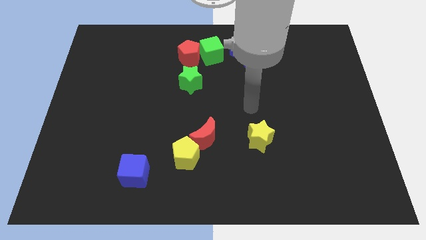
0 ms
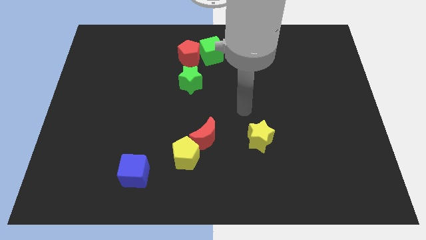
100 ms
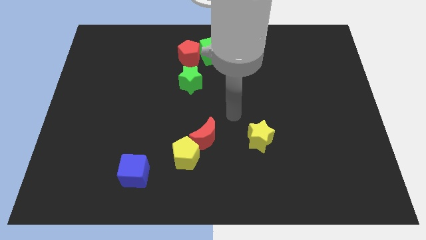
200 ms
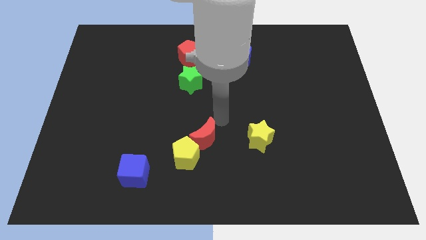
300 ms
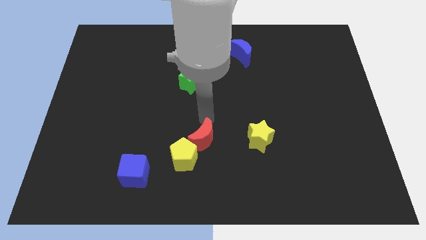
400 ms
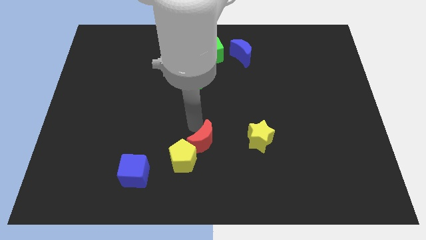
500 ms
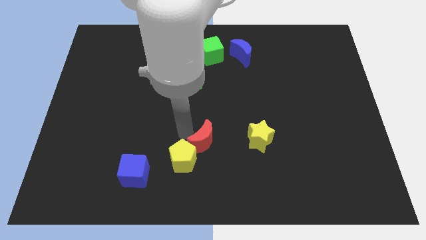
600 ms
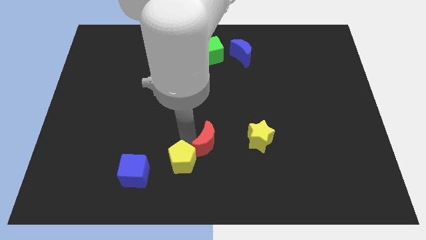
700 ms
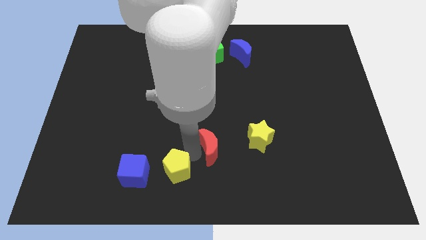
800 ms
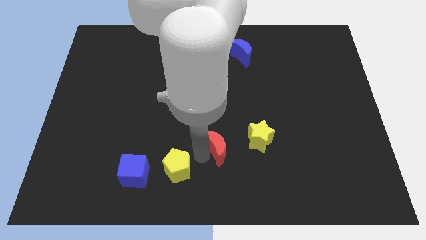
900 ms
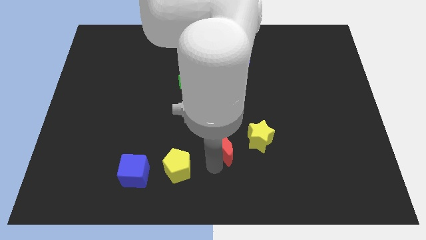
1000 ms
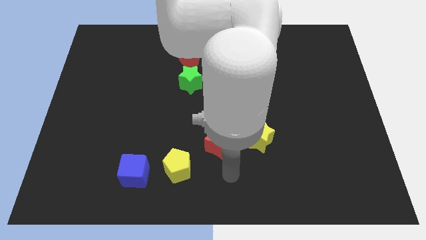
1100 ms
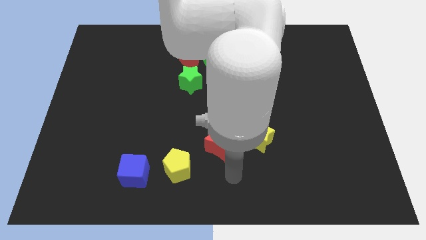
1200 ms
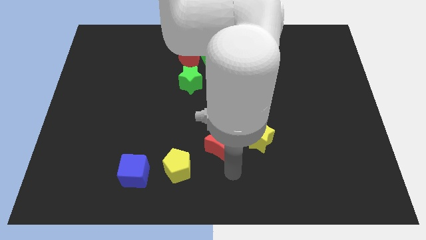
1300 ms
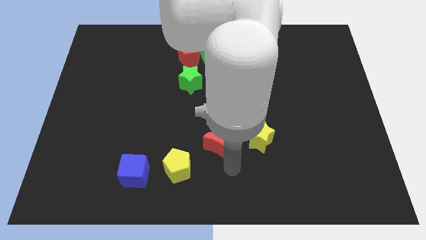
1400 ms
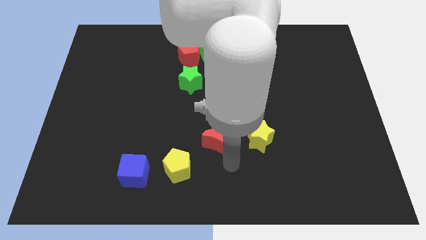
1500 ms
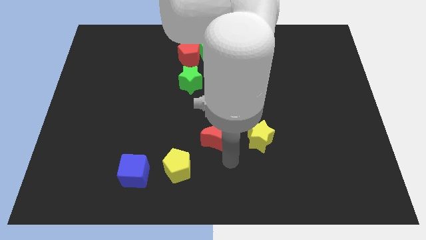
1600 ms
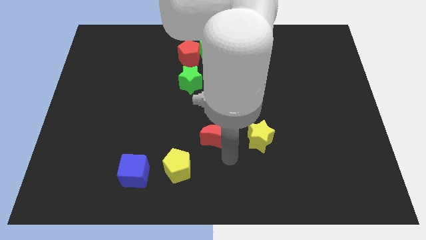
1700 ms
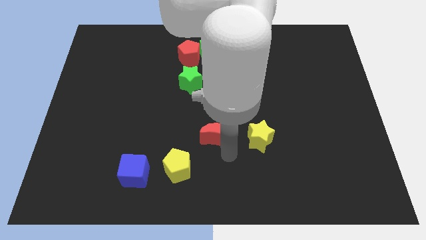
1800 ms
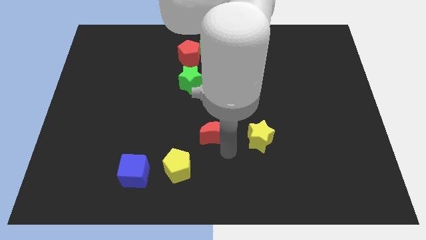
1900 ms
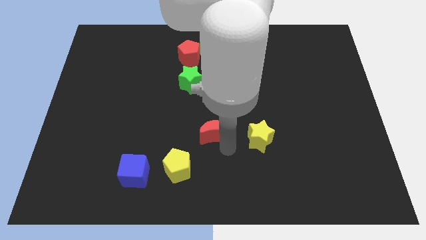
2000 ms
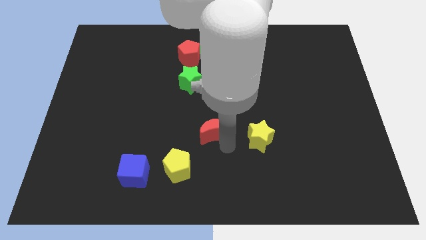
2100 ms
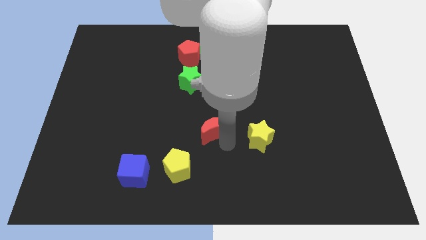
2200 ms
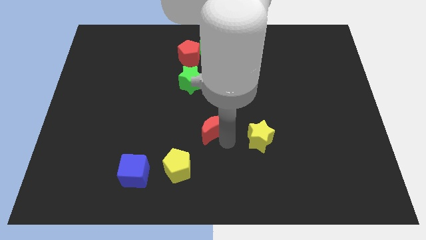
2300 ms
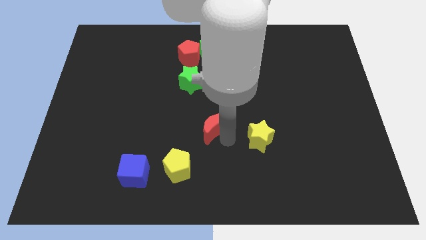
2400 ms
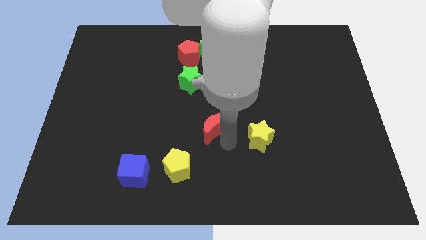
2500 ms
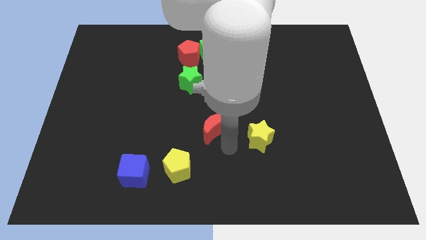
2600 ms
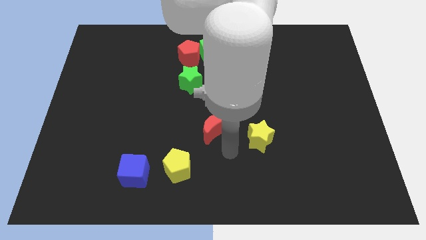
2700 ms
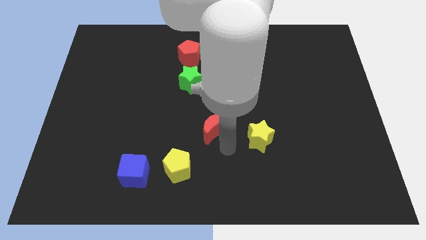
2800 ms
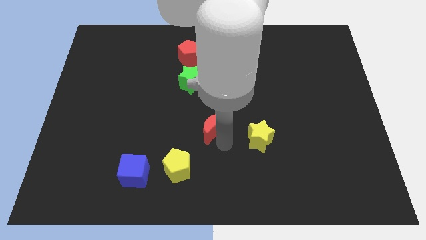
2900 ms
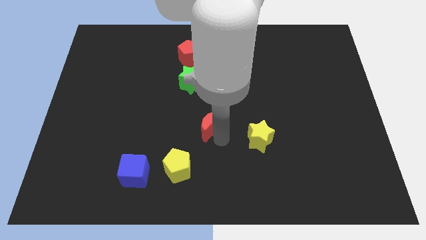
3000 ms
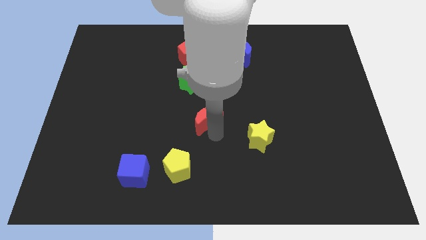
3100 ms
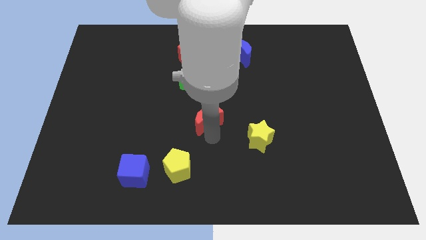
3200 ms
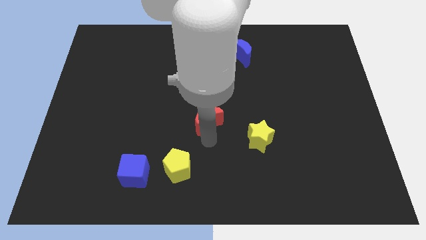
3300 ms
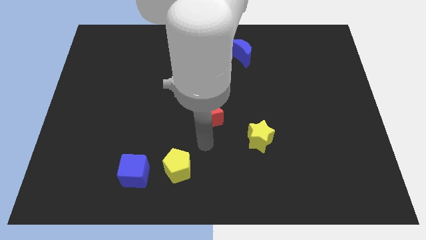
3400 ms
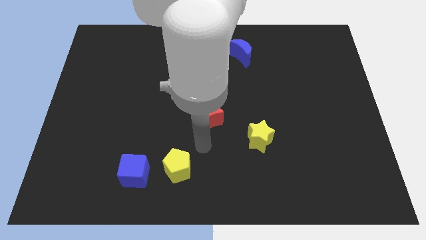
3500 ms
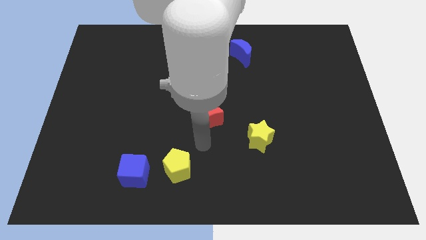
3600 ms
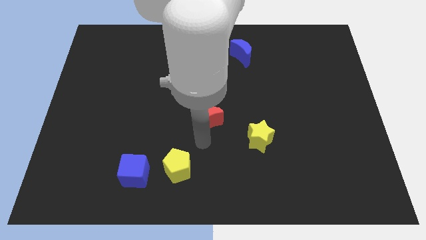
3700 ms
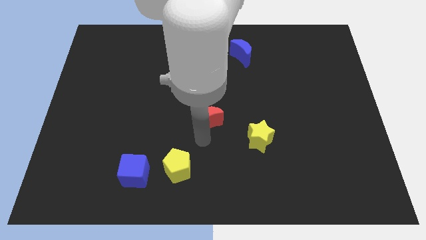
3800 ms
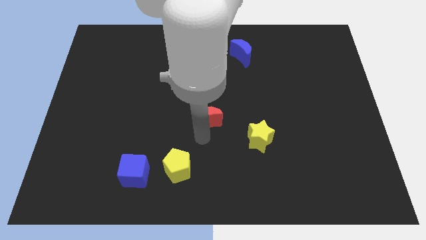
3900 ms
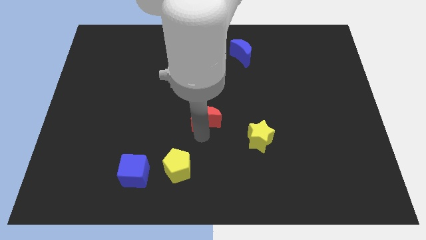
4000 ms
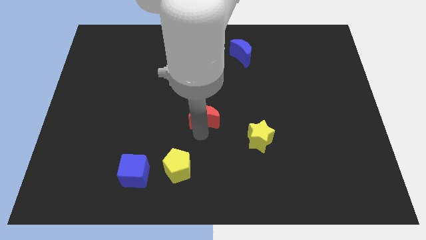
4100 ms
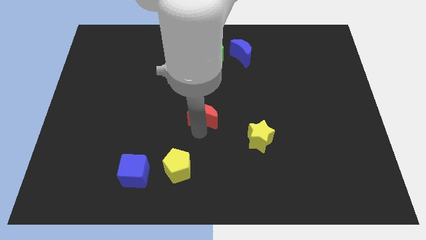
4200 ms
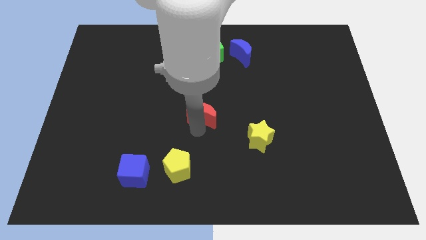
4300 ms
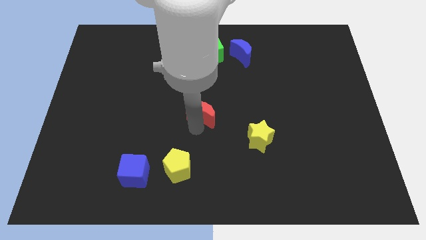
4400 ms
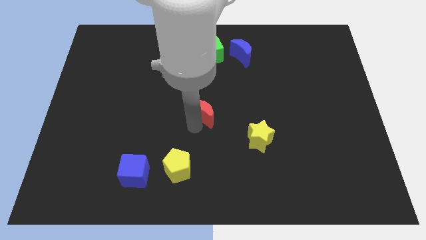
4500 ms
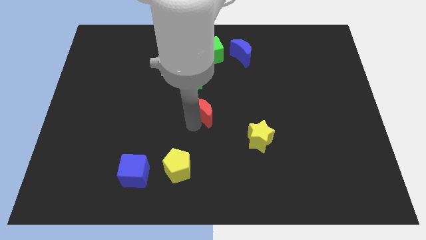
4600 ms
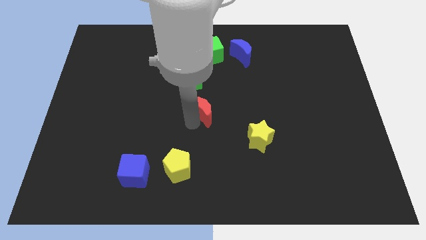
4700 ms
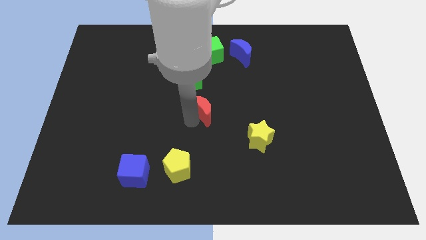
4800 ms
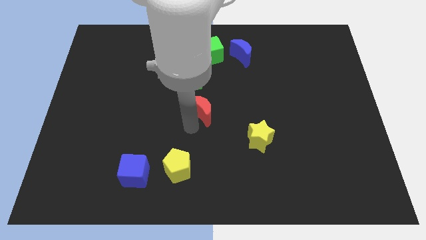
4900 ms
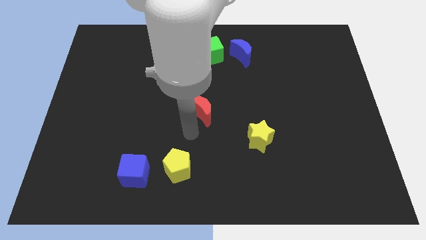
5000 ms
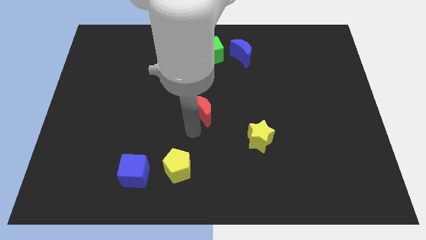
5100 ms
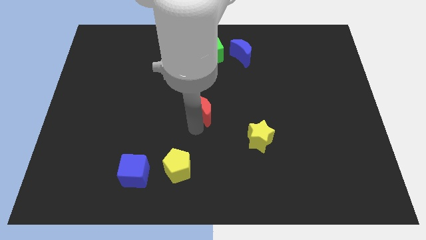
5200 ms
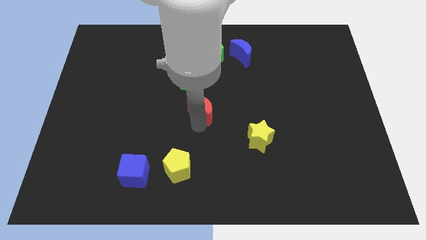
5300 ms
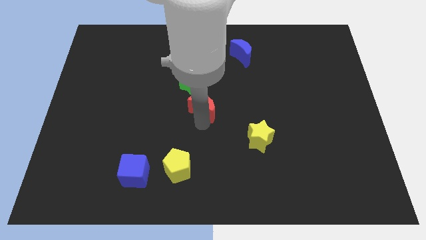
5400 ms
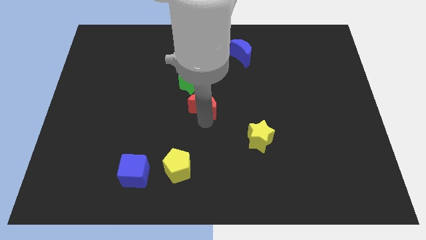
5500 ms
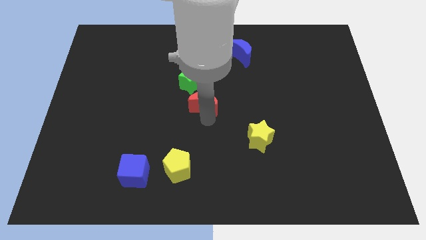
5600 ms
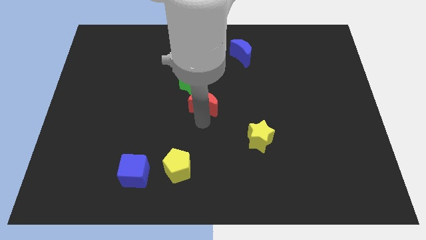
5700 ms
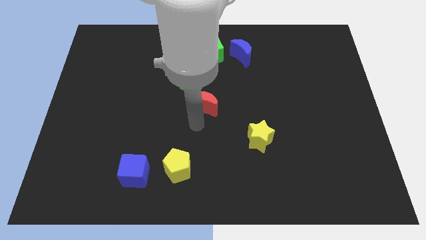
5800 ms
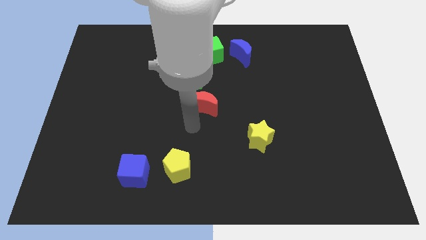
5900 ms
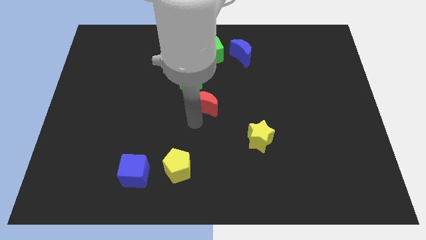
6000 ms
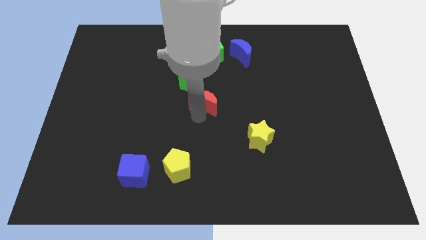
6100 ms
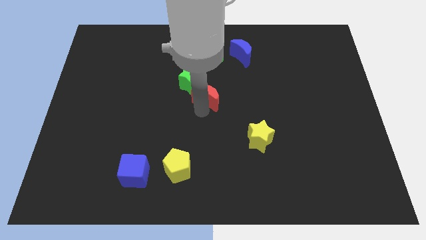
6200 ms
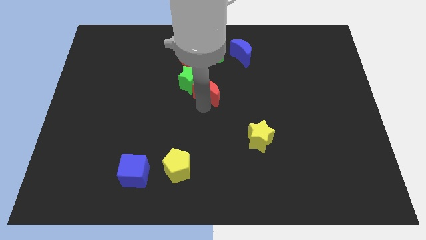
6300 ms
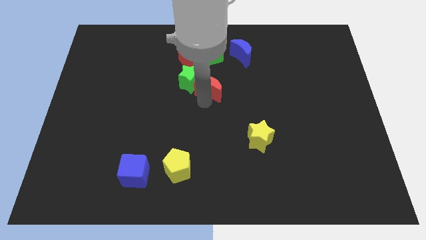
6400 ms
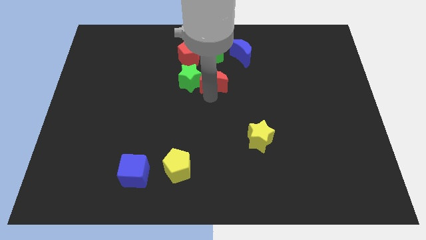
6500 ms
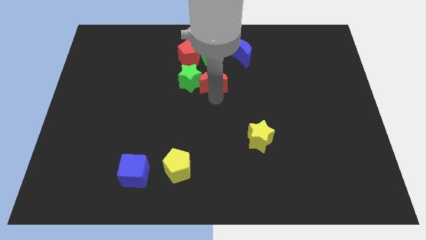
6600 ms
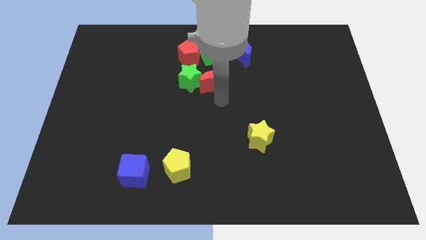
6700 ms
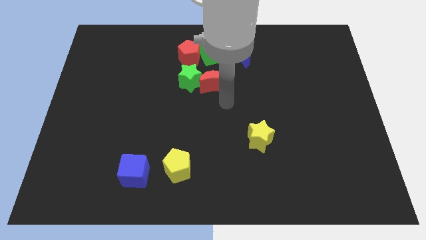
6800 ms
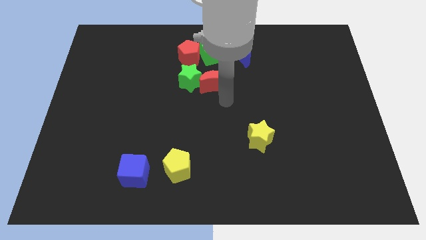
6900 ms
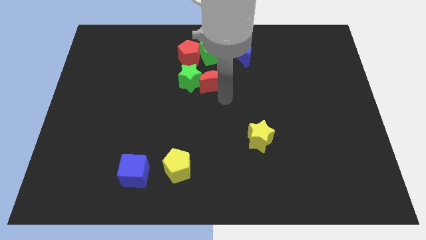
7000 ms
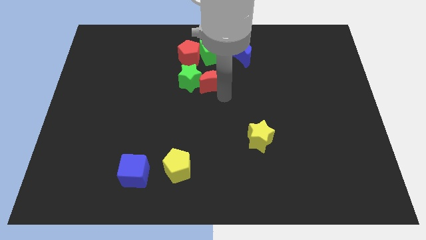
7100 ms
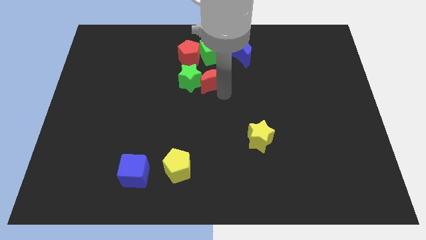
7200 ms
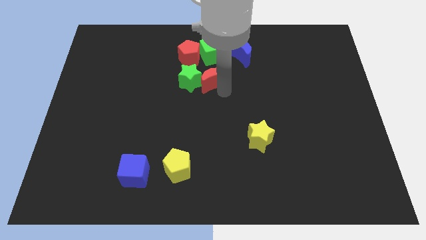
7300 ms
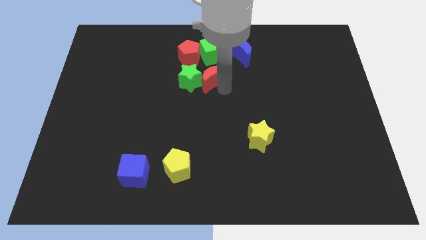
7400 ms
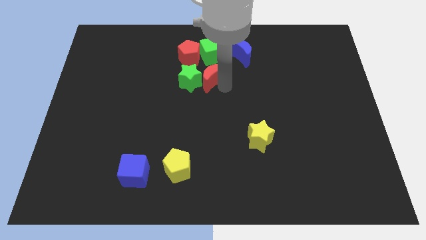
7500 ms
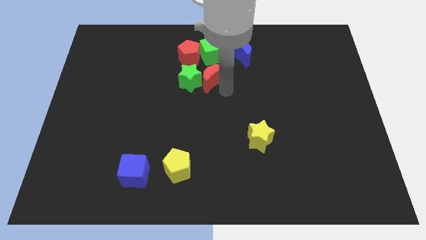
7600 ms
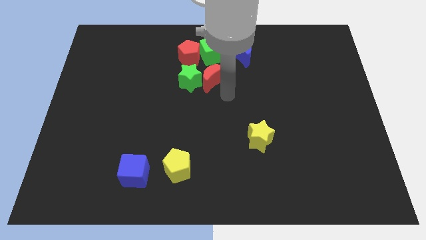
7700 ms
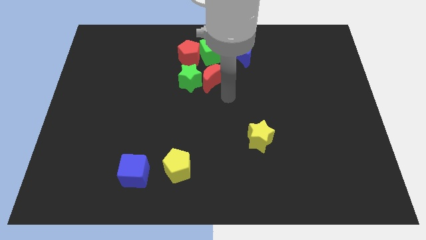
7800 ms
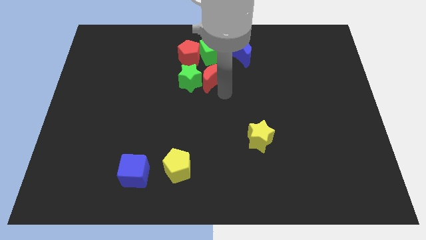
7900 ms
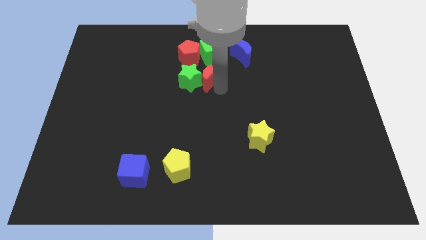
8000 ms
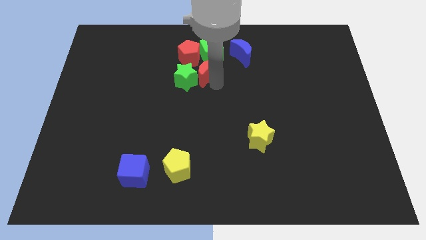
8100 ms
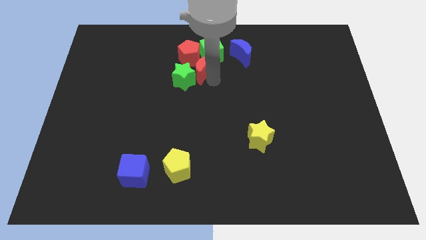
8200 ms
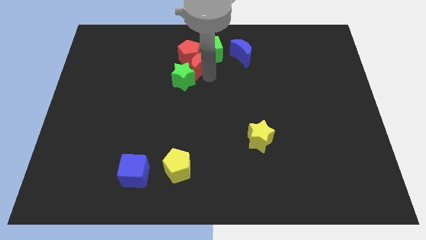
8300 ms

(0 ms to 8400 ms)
slide the red moon close to the red pentagon
